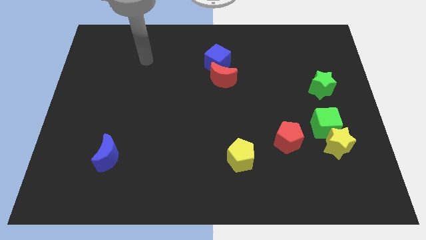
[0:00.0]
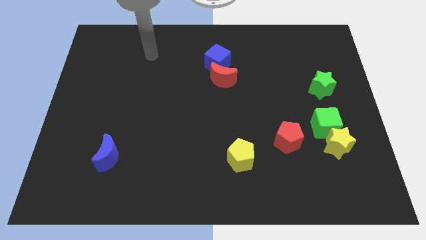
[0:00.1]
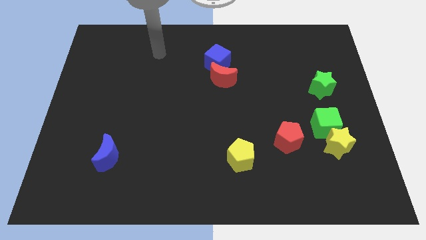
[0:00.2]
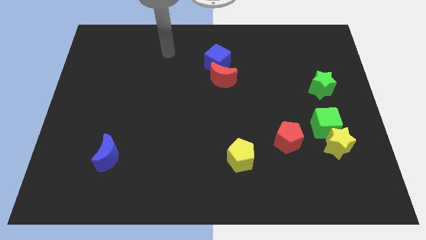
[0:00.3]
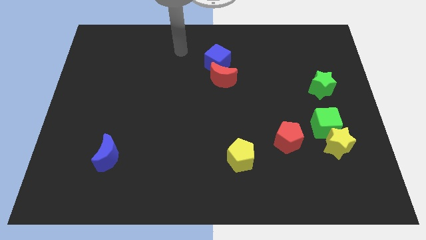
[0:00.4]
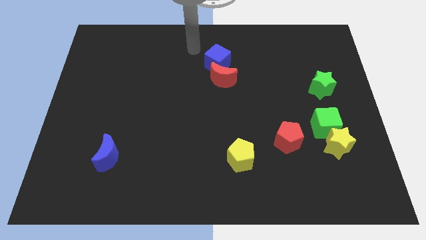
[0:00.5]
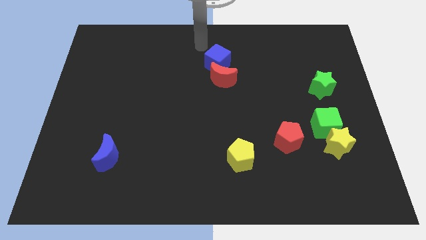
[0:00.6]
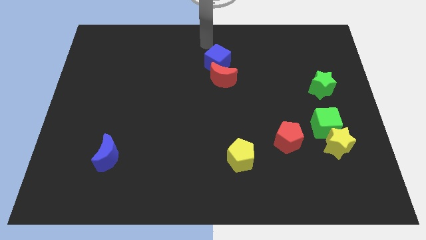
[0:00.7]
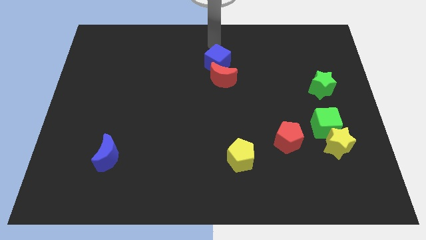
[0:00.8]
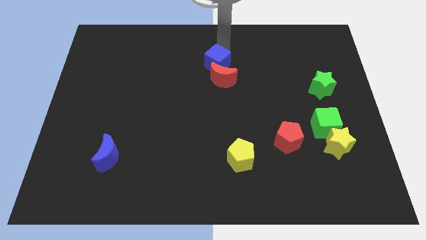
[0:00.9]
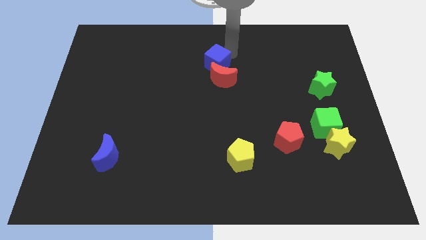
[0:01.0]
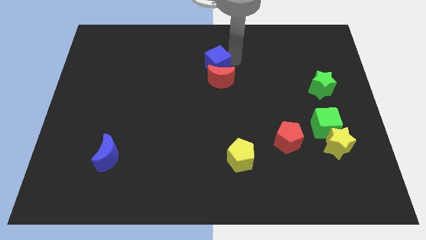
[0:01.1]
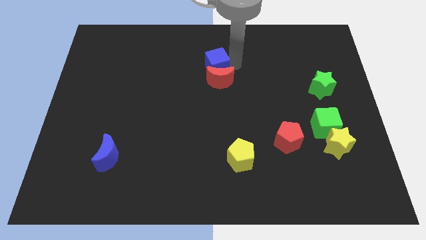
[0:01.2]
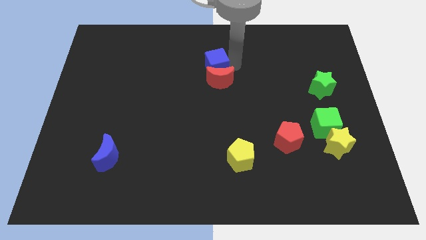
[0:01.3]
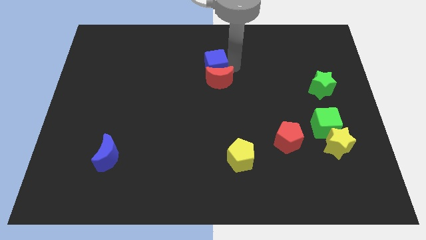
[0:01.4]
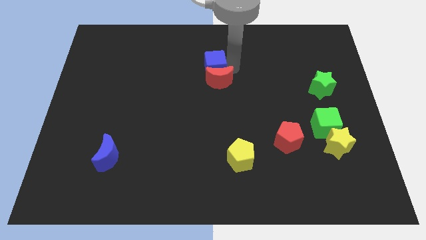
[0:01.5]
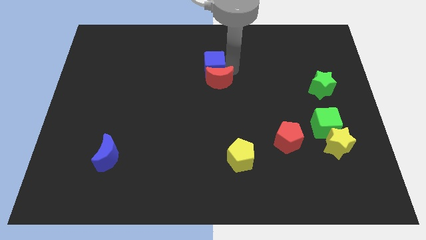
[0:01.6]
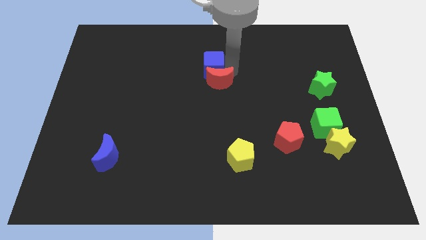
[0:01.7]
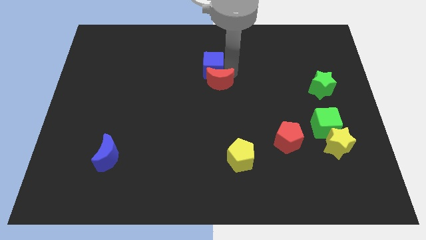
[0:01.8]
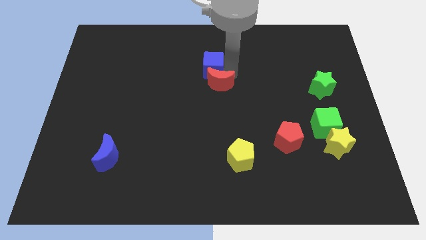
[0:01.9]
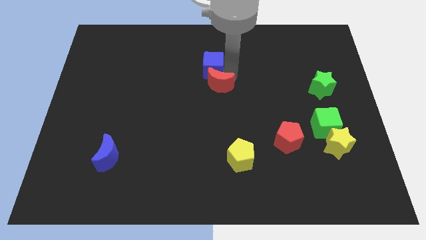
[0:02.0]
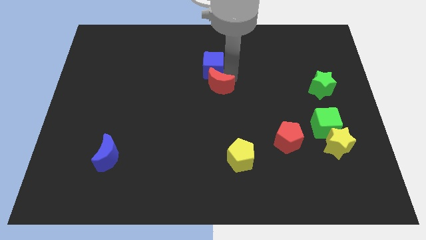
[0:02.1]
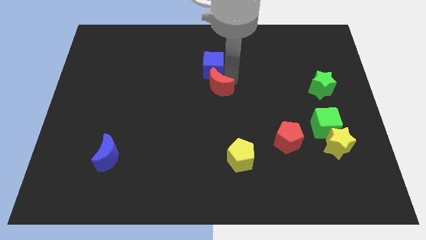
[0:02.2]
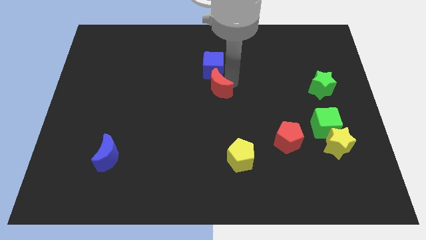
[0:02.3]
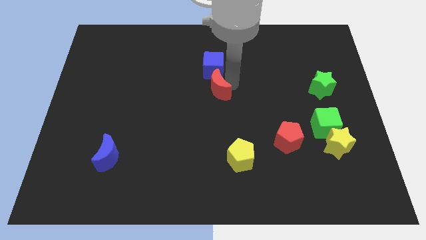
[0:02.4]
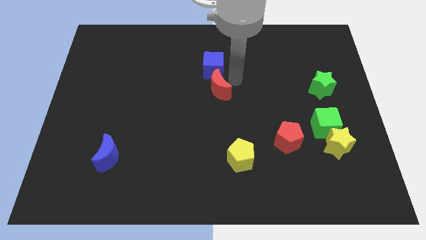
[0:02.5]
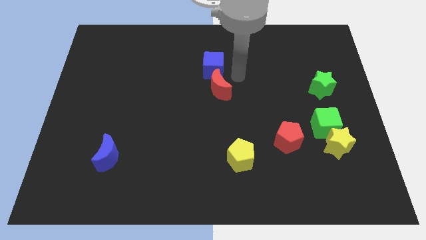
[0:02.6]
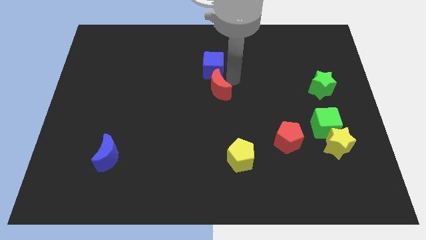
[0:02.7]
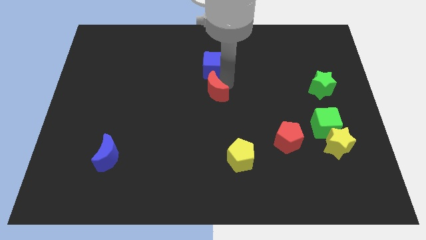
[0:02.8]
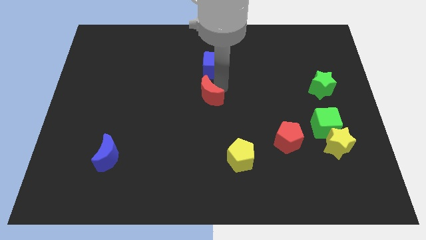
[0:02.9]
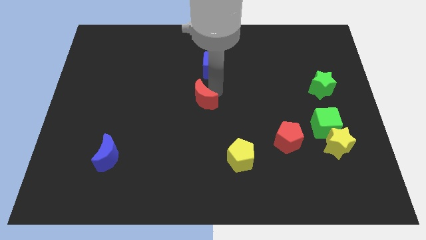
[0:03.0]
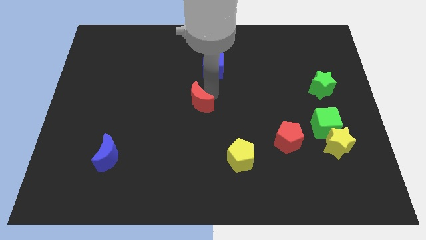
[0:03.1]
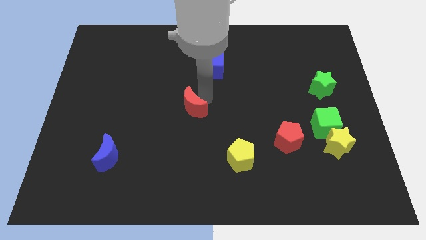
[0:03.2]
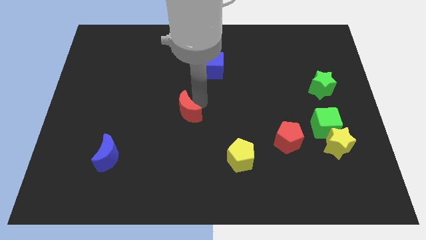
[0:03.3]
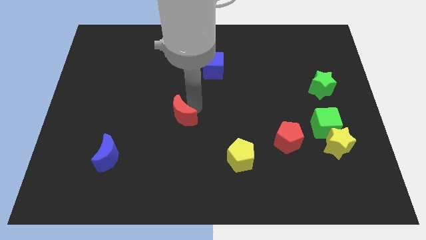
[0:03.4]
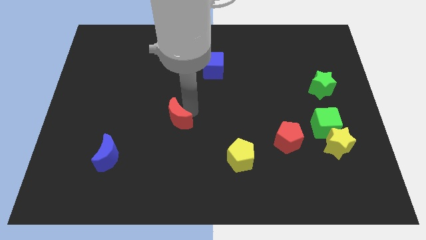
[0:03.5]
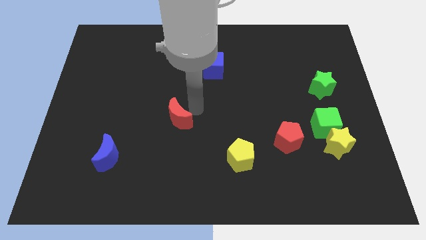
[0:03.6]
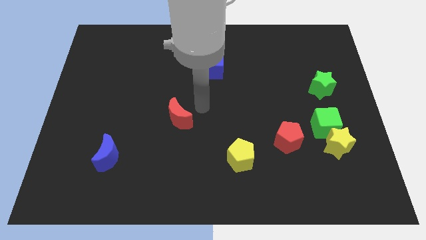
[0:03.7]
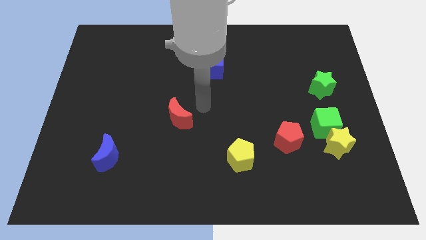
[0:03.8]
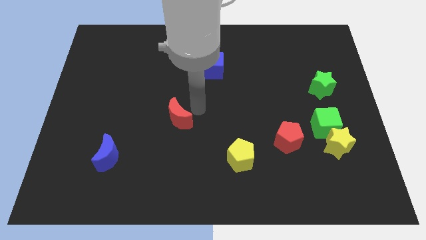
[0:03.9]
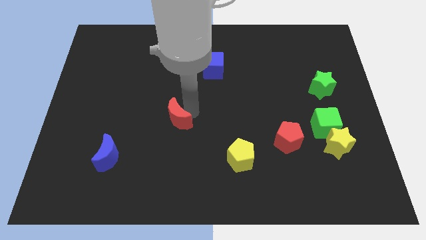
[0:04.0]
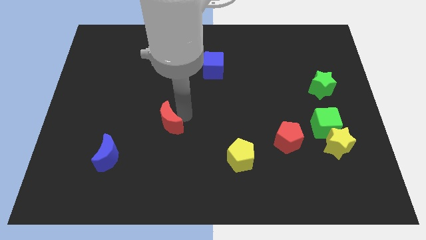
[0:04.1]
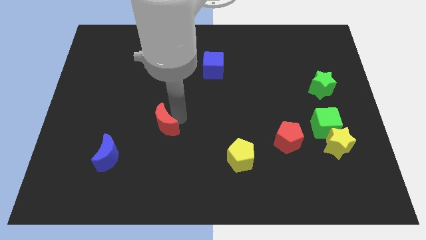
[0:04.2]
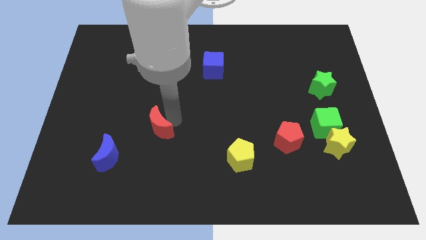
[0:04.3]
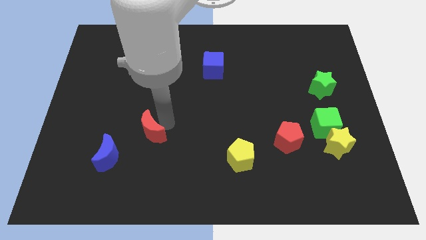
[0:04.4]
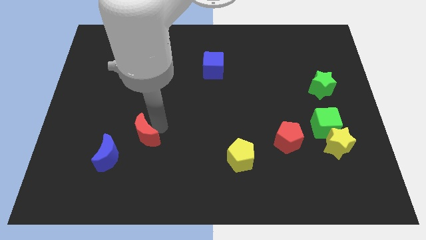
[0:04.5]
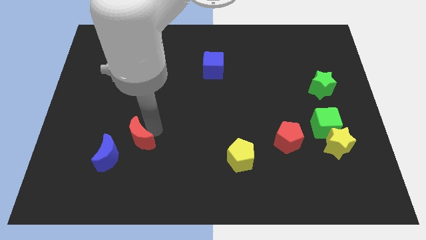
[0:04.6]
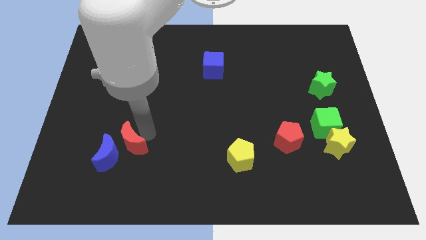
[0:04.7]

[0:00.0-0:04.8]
put the red moon close to the blue moon

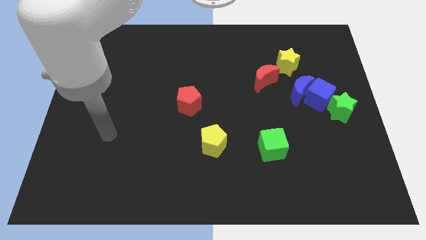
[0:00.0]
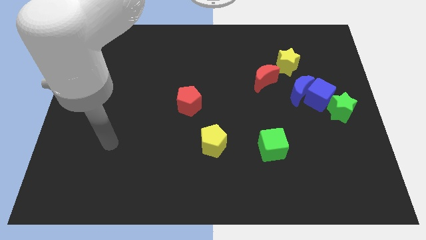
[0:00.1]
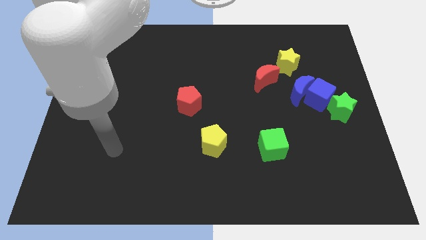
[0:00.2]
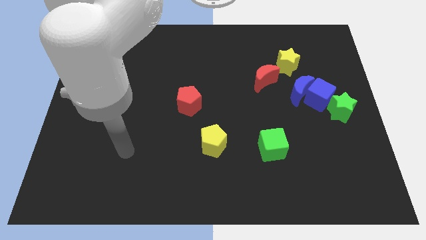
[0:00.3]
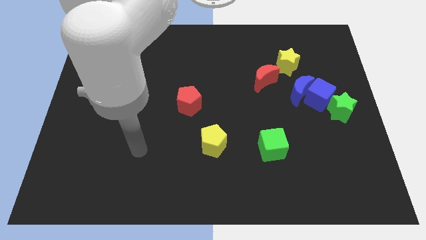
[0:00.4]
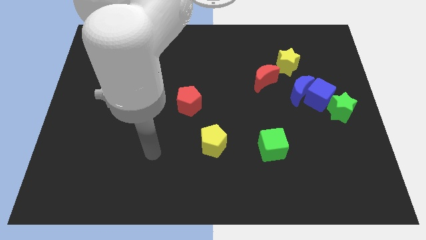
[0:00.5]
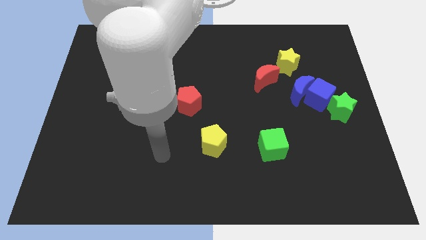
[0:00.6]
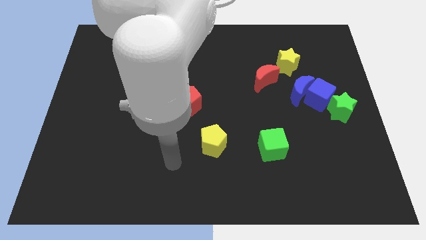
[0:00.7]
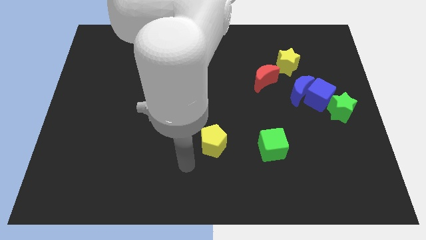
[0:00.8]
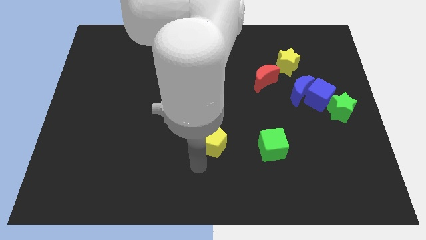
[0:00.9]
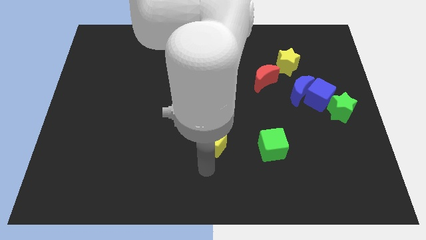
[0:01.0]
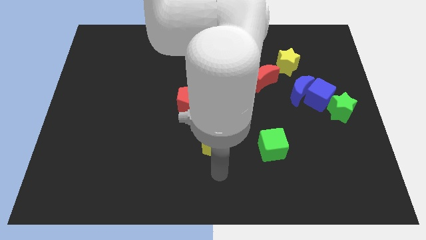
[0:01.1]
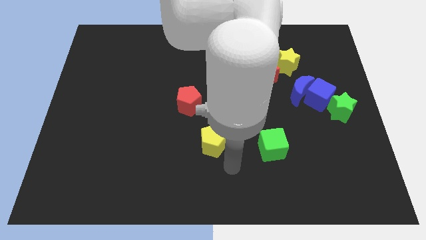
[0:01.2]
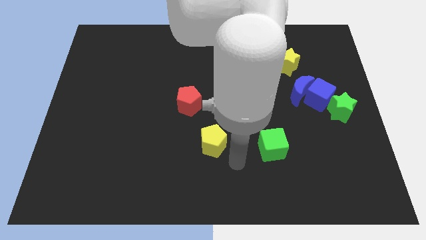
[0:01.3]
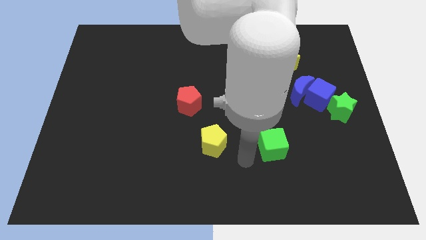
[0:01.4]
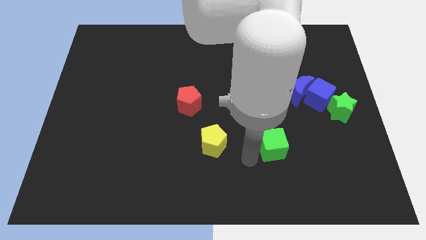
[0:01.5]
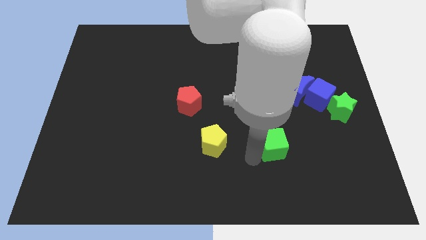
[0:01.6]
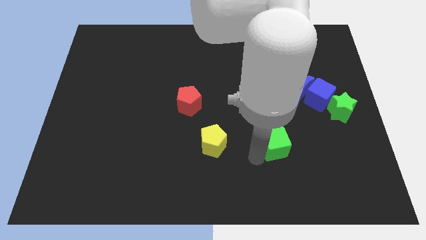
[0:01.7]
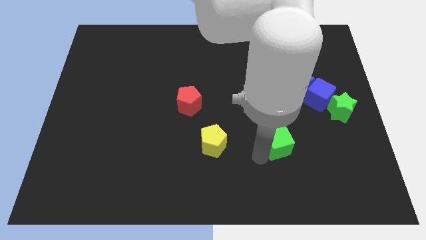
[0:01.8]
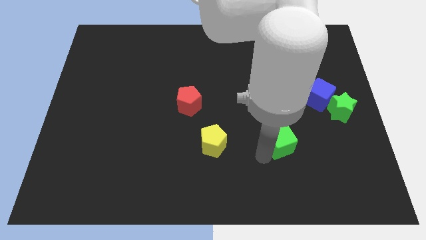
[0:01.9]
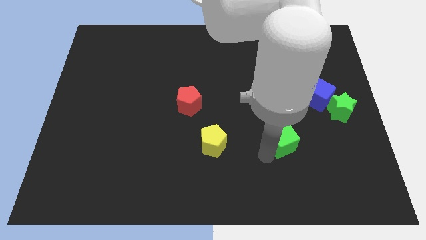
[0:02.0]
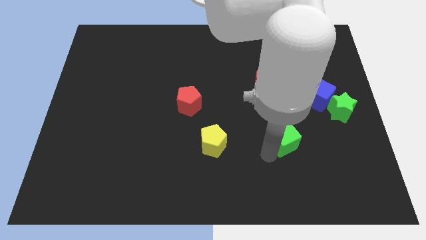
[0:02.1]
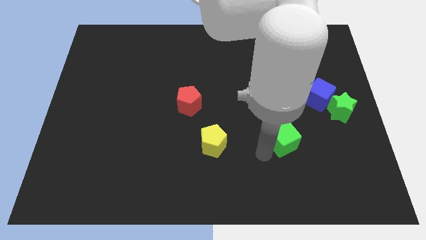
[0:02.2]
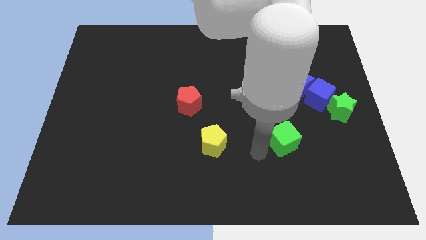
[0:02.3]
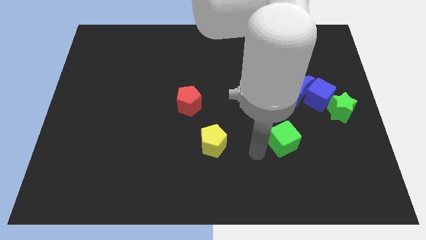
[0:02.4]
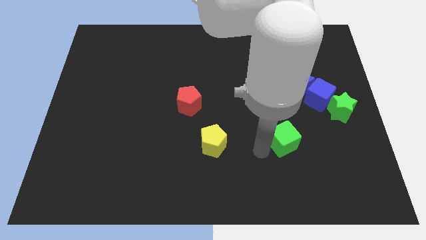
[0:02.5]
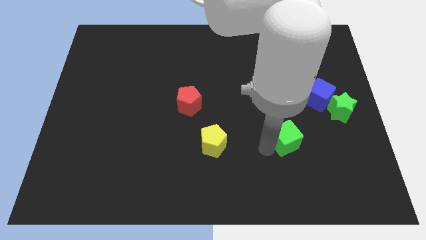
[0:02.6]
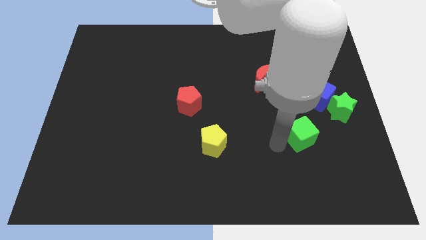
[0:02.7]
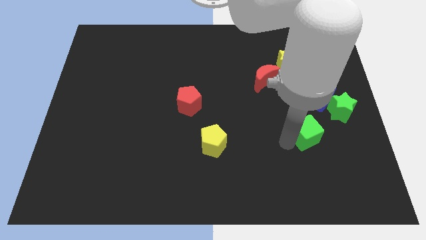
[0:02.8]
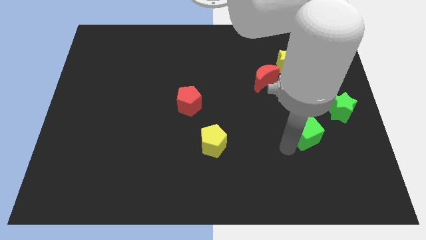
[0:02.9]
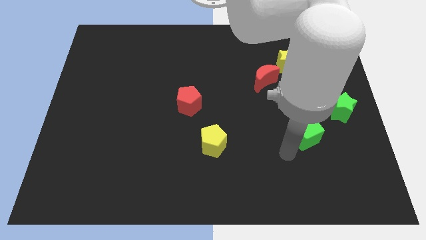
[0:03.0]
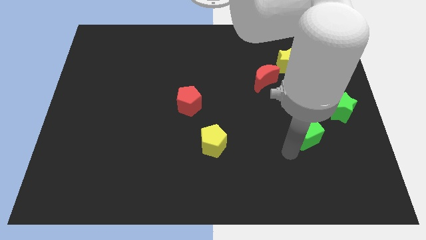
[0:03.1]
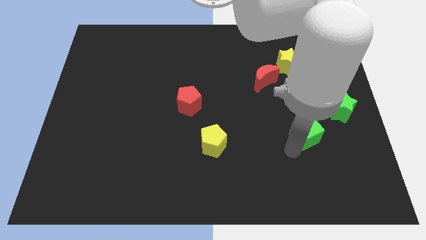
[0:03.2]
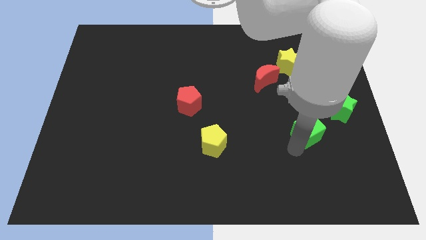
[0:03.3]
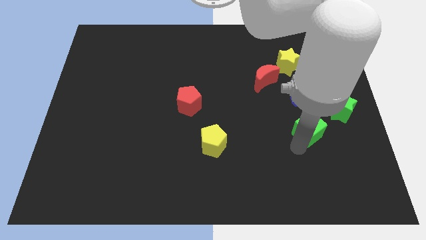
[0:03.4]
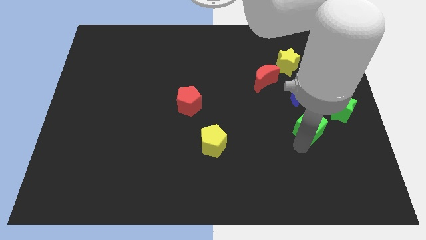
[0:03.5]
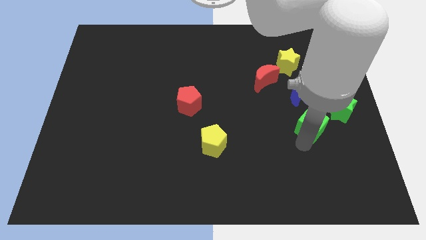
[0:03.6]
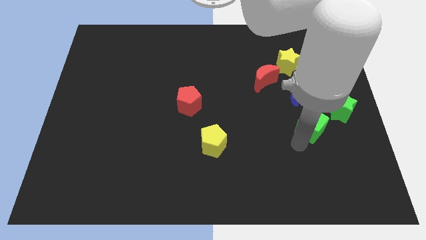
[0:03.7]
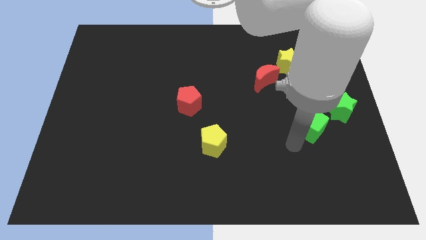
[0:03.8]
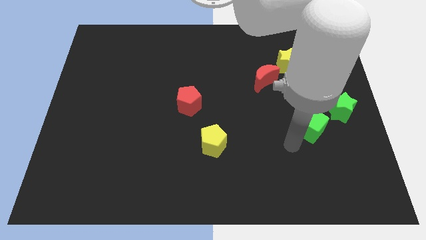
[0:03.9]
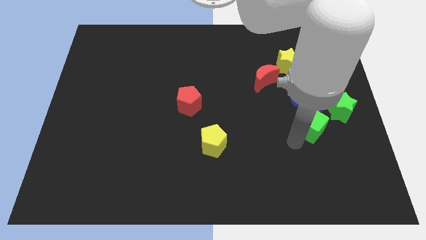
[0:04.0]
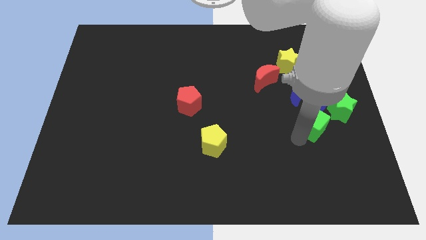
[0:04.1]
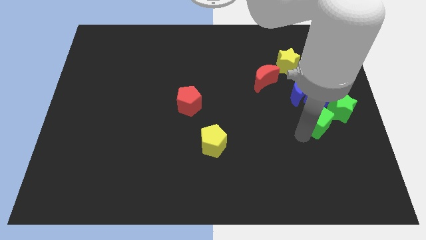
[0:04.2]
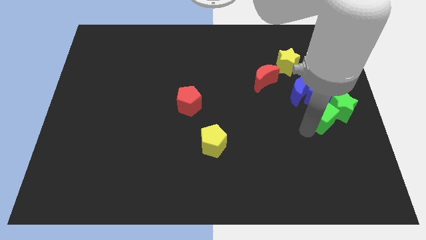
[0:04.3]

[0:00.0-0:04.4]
move the green cube next to the green star
